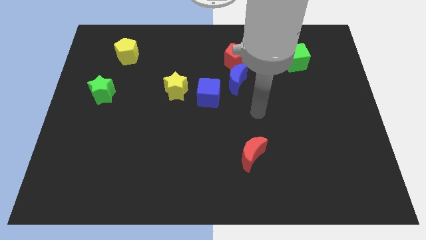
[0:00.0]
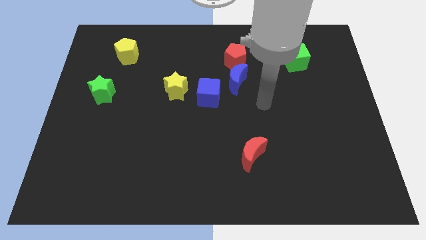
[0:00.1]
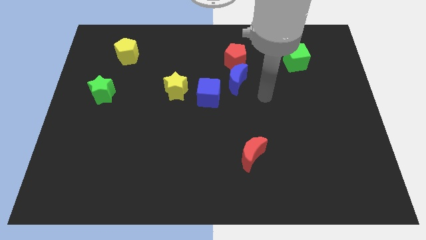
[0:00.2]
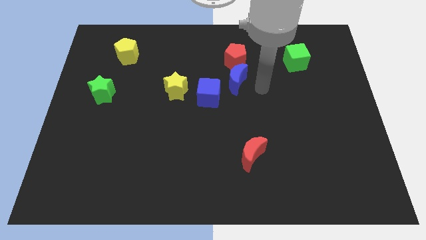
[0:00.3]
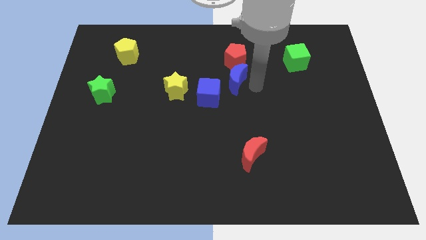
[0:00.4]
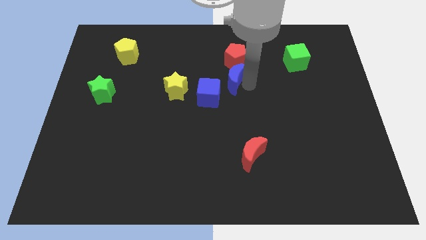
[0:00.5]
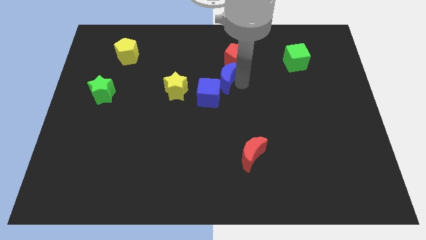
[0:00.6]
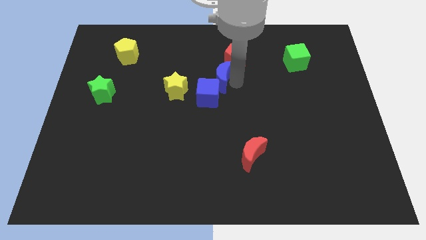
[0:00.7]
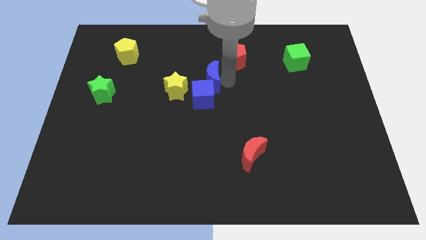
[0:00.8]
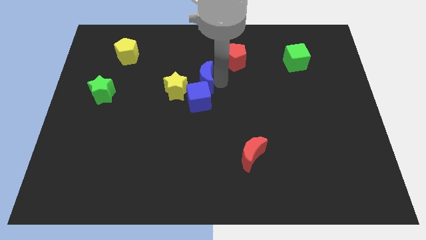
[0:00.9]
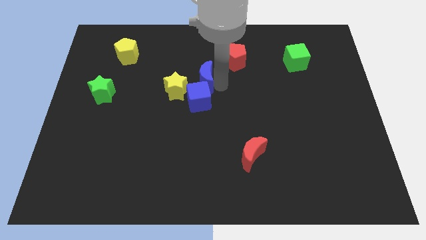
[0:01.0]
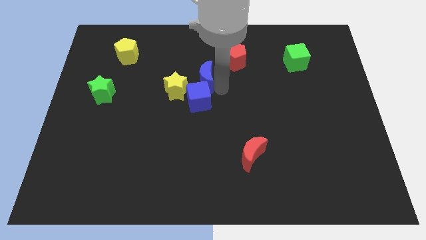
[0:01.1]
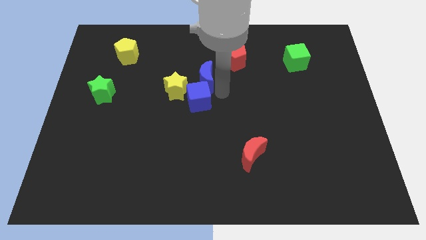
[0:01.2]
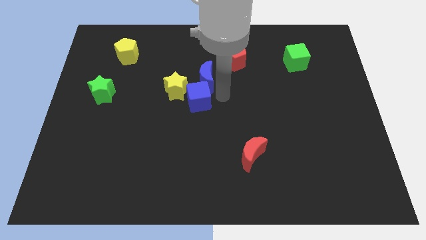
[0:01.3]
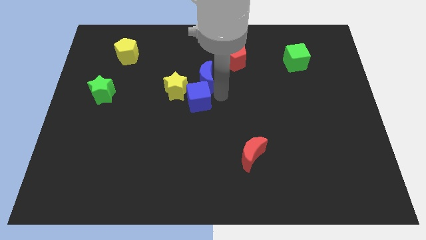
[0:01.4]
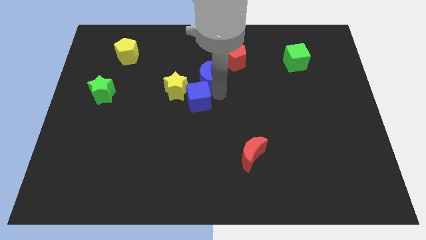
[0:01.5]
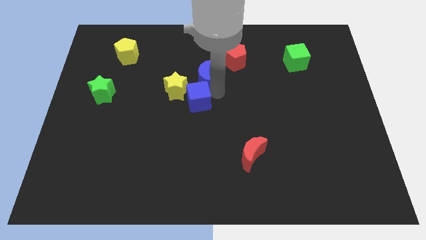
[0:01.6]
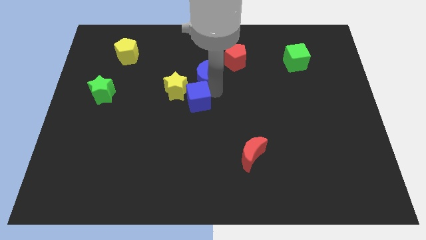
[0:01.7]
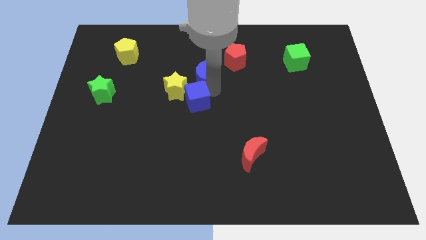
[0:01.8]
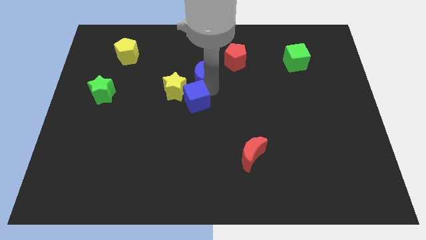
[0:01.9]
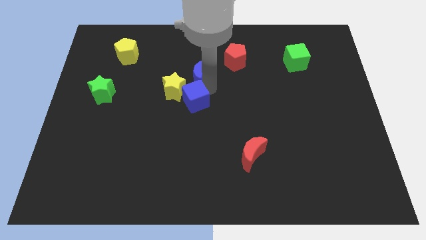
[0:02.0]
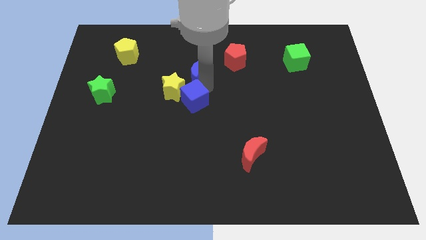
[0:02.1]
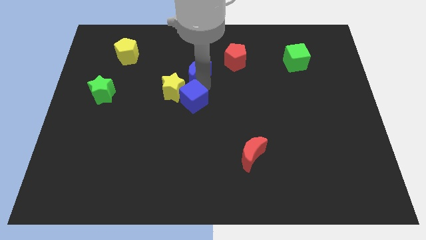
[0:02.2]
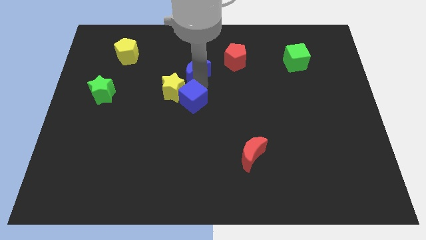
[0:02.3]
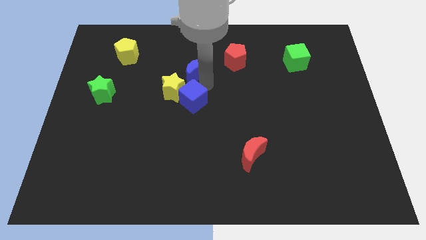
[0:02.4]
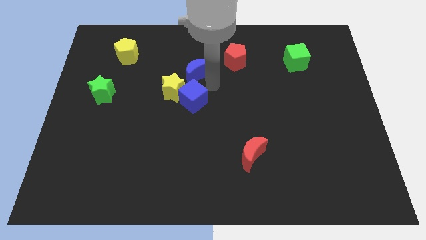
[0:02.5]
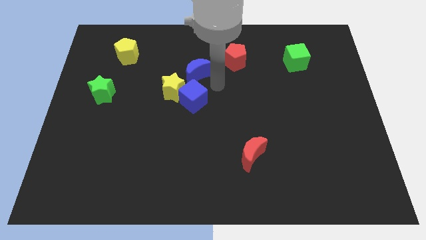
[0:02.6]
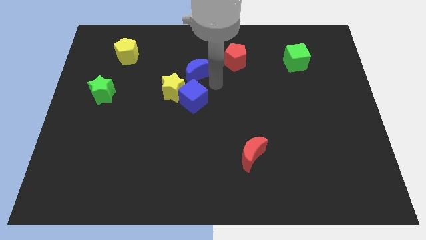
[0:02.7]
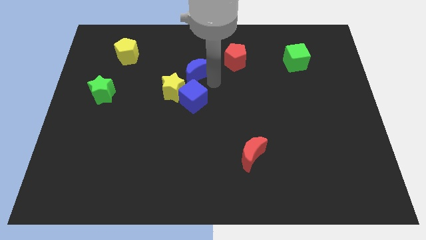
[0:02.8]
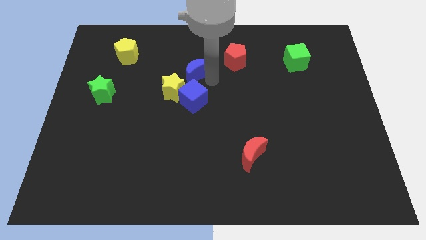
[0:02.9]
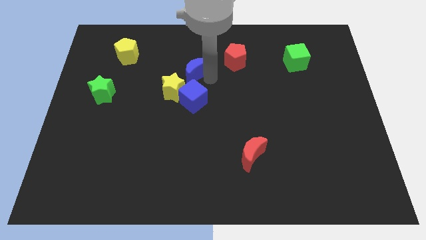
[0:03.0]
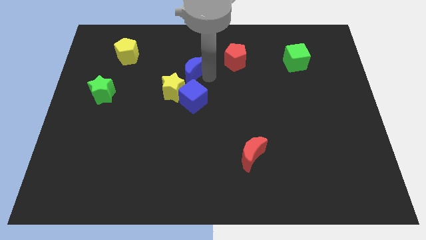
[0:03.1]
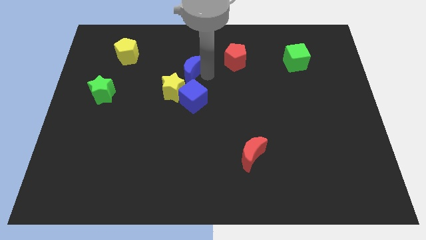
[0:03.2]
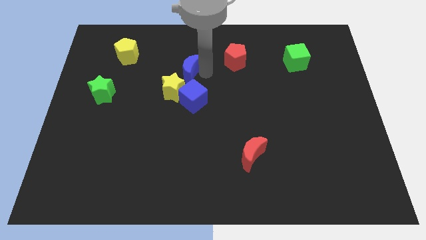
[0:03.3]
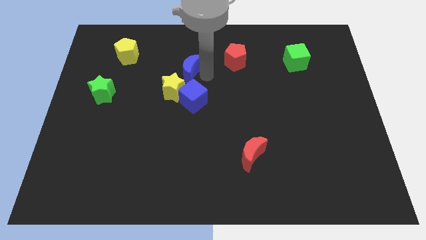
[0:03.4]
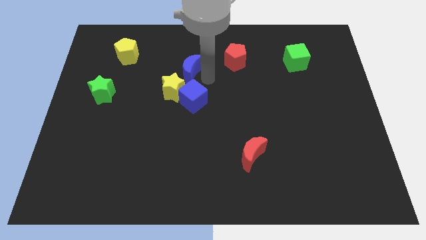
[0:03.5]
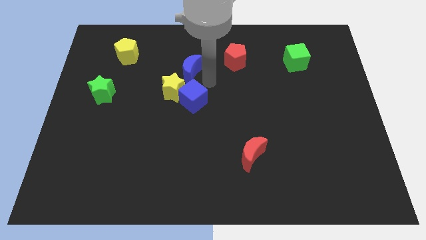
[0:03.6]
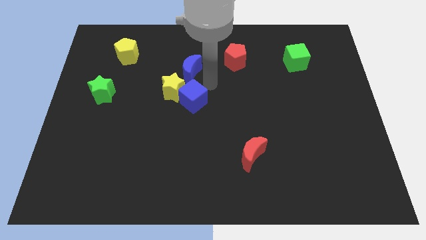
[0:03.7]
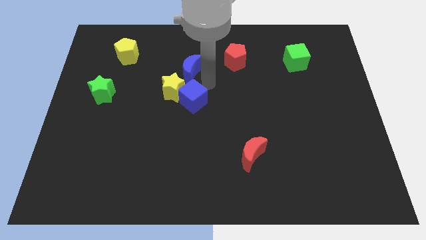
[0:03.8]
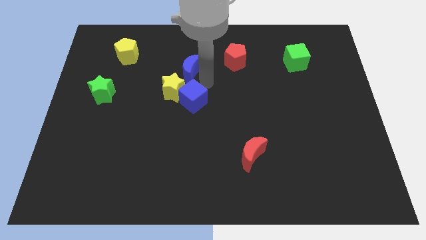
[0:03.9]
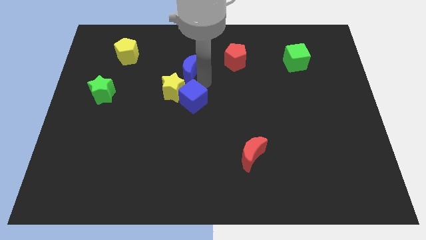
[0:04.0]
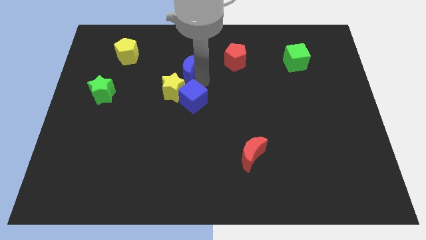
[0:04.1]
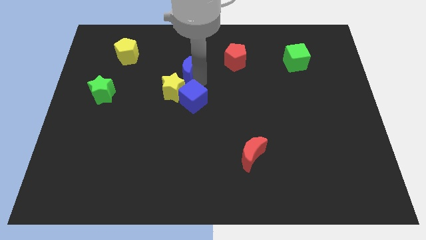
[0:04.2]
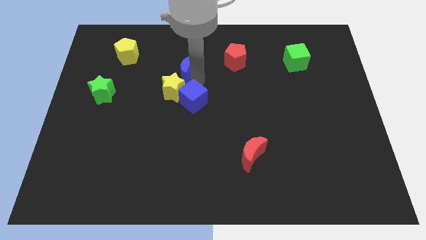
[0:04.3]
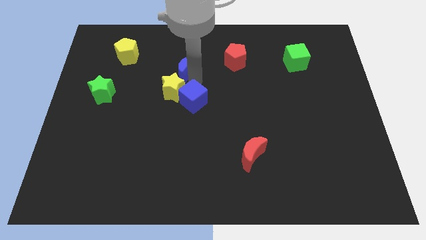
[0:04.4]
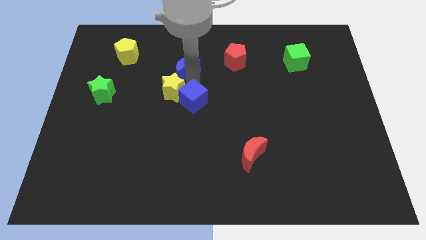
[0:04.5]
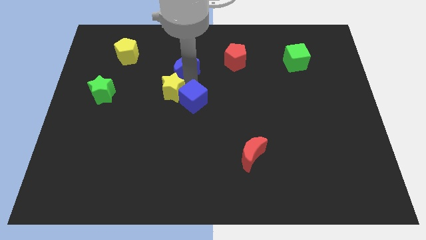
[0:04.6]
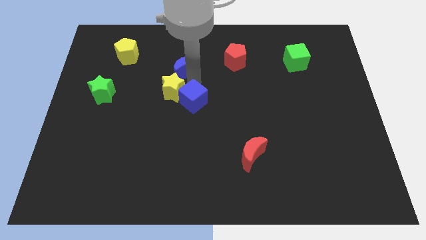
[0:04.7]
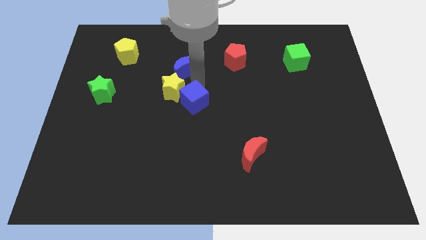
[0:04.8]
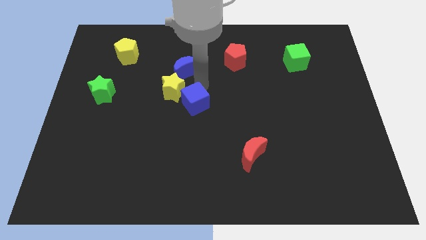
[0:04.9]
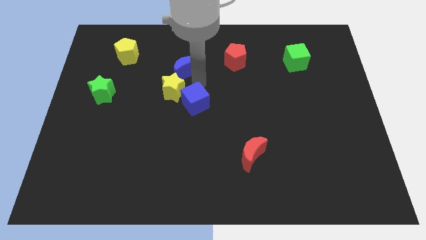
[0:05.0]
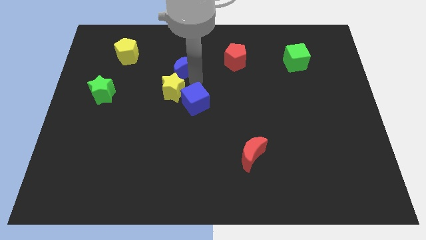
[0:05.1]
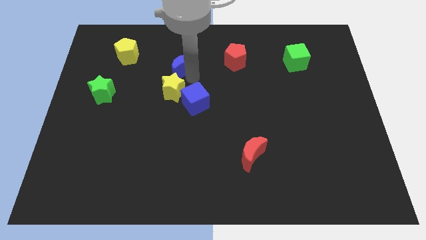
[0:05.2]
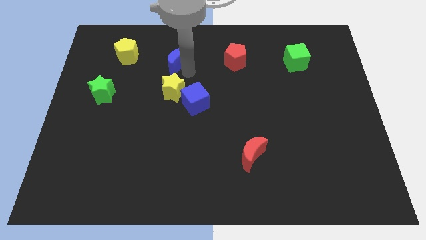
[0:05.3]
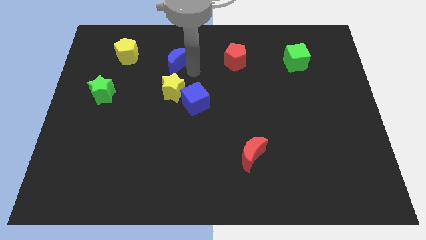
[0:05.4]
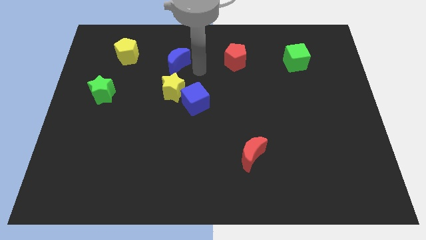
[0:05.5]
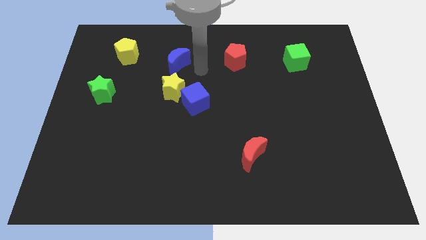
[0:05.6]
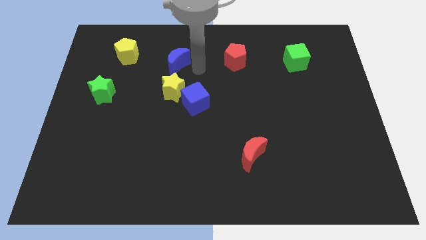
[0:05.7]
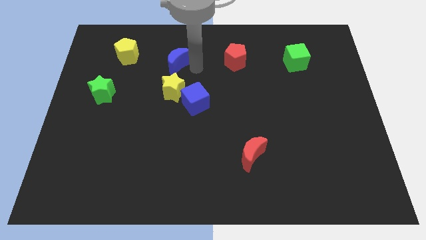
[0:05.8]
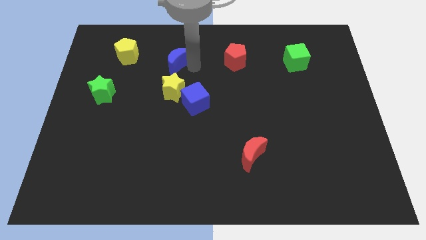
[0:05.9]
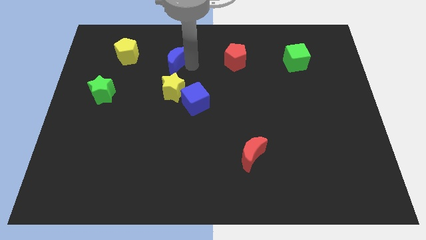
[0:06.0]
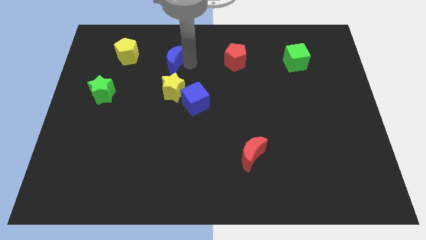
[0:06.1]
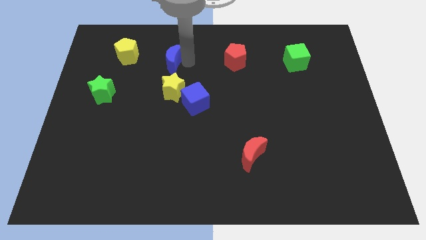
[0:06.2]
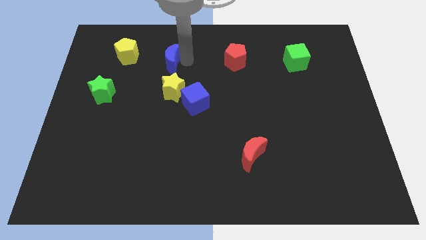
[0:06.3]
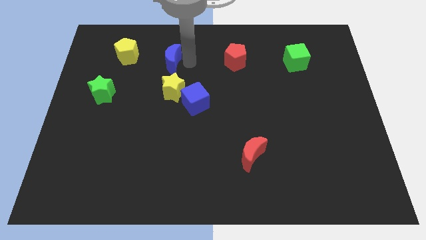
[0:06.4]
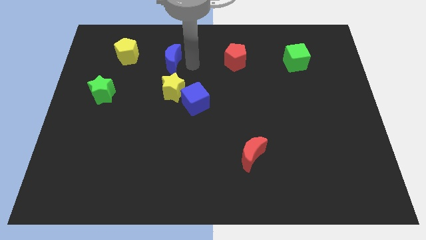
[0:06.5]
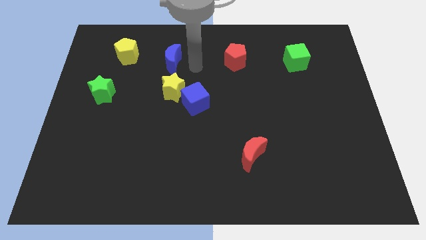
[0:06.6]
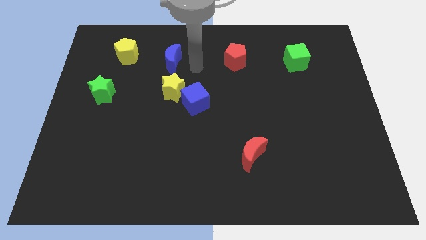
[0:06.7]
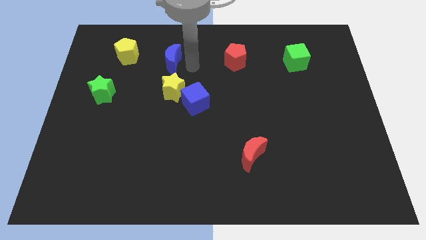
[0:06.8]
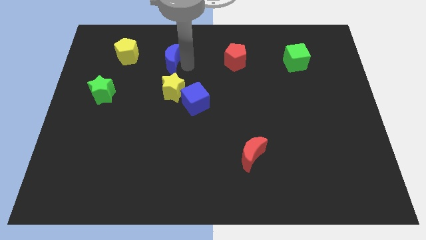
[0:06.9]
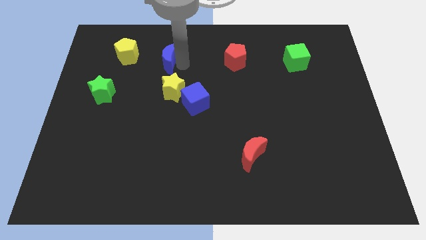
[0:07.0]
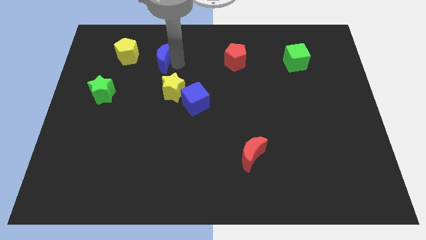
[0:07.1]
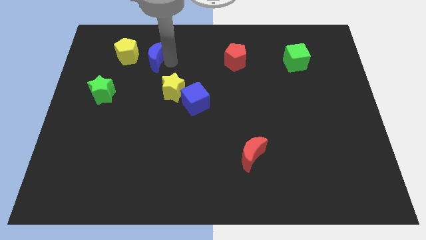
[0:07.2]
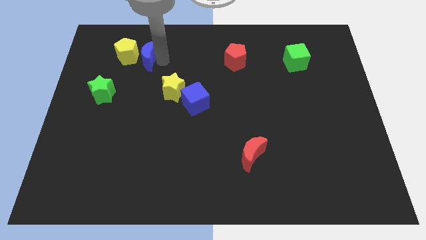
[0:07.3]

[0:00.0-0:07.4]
move the blue moon close to the yellow pentagon

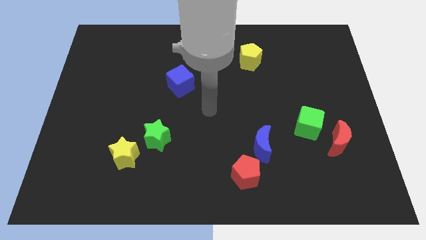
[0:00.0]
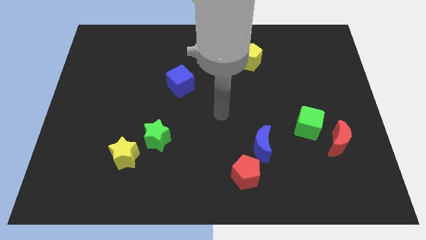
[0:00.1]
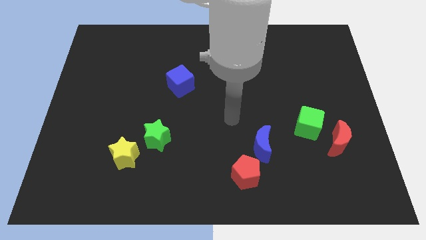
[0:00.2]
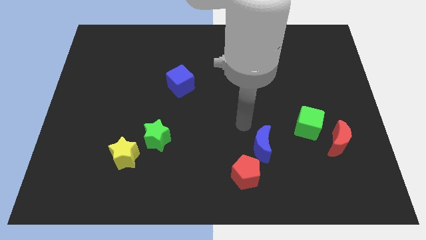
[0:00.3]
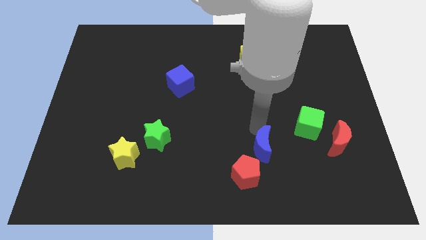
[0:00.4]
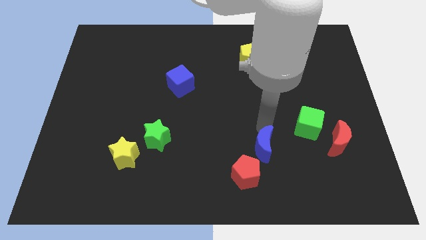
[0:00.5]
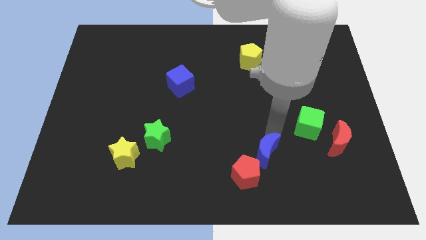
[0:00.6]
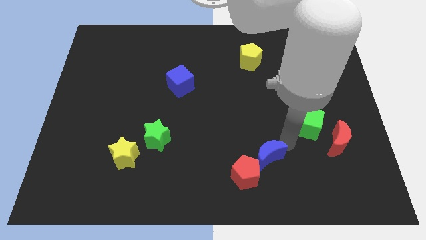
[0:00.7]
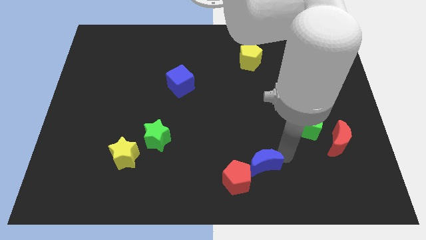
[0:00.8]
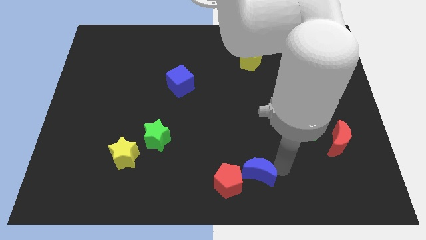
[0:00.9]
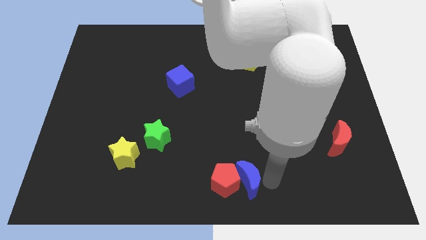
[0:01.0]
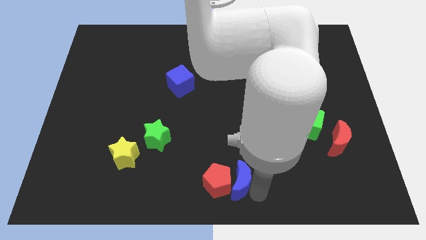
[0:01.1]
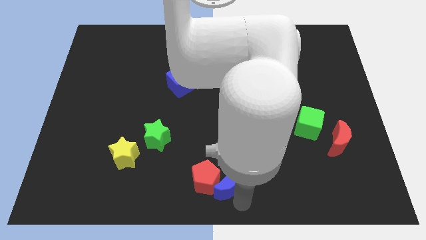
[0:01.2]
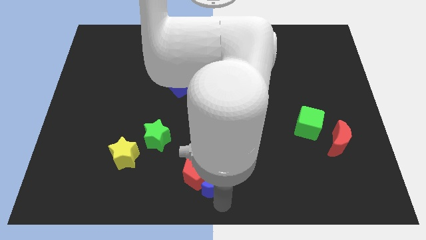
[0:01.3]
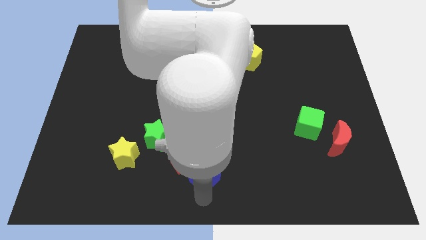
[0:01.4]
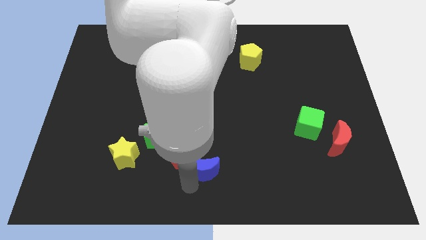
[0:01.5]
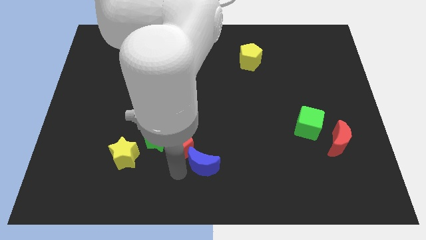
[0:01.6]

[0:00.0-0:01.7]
put the red pentagon next to the green star
